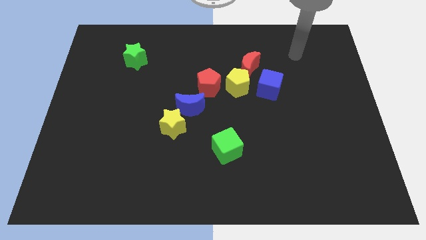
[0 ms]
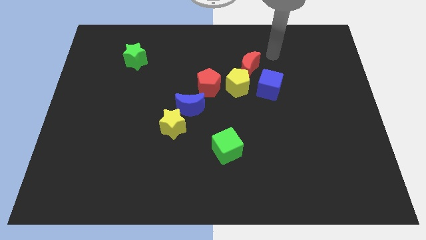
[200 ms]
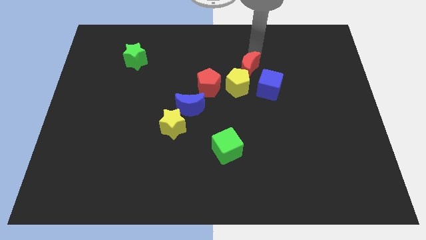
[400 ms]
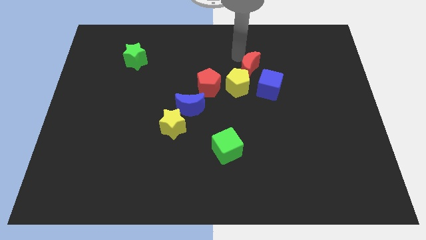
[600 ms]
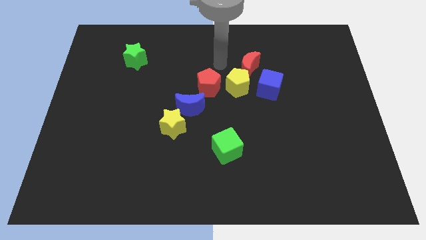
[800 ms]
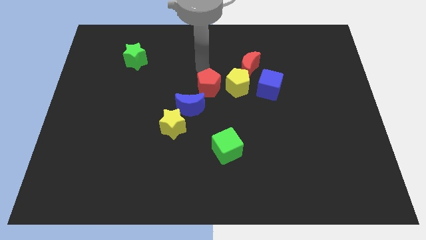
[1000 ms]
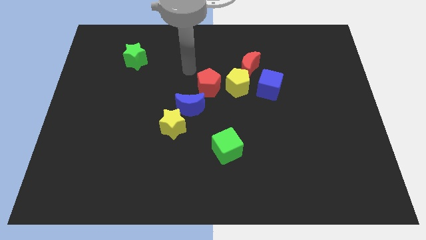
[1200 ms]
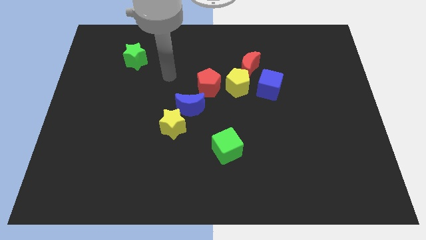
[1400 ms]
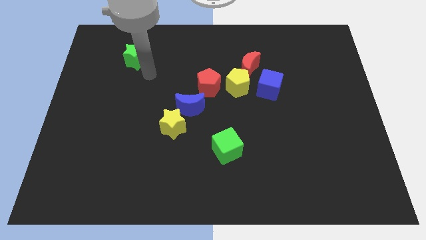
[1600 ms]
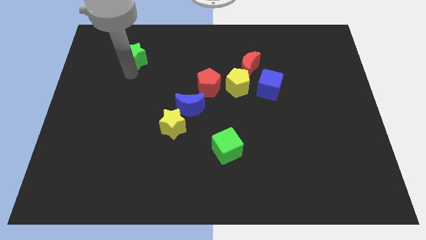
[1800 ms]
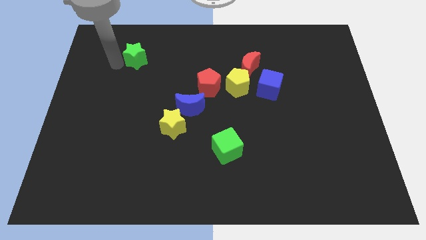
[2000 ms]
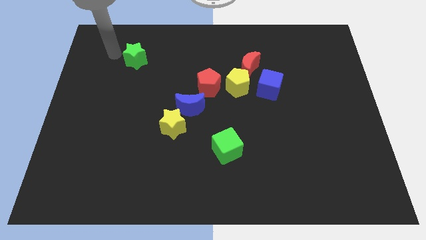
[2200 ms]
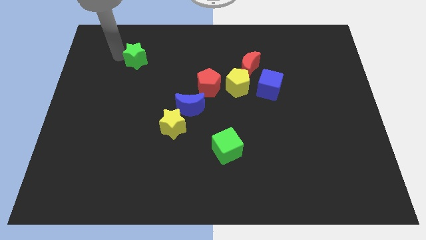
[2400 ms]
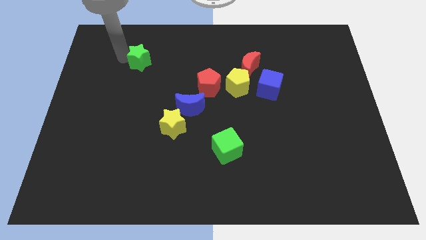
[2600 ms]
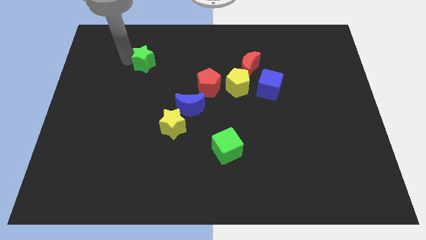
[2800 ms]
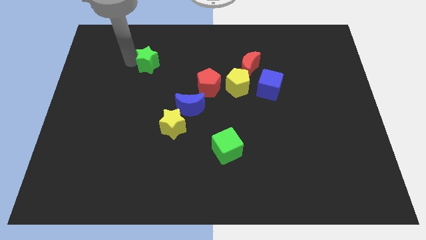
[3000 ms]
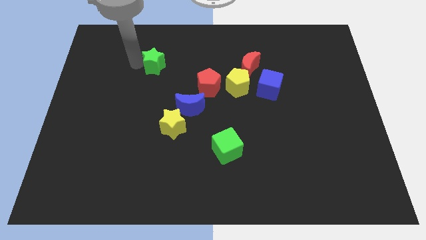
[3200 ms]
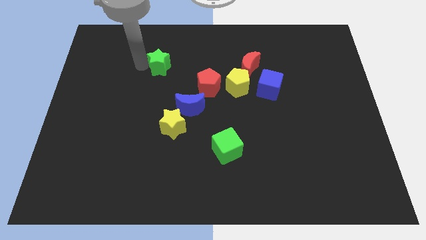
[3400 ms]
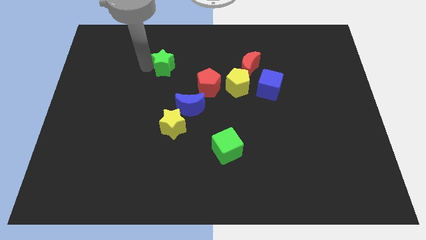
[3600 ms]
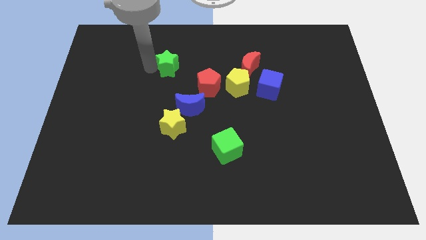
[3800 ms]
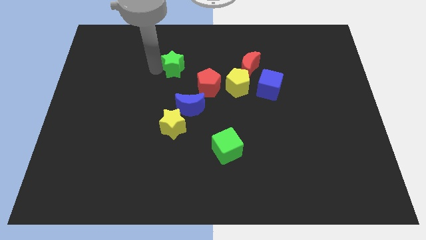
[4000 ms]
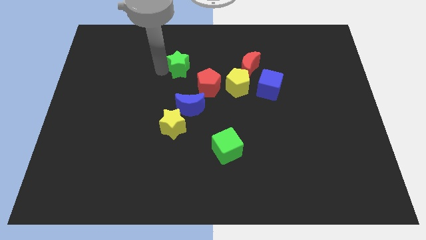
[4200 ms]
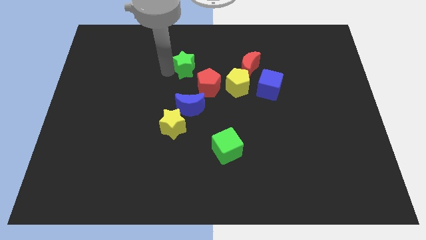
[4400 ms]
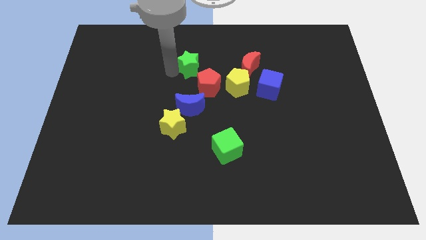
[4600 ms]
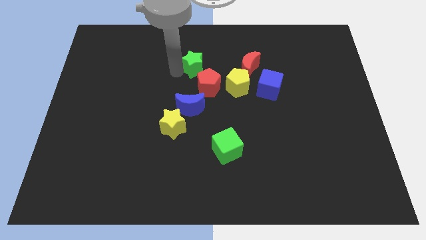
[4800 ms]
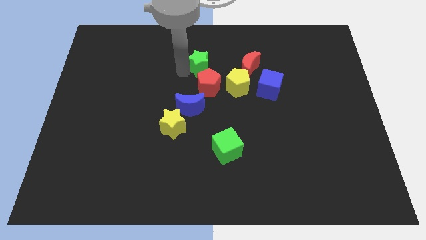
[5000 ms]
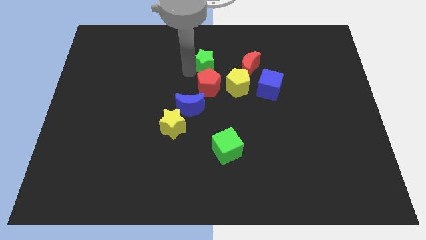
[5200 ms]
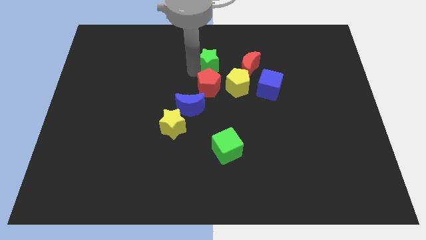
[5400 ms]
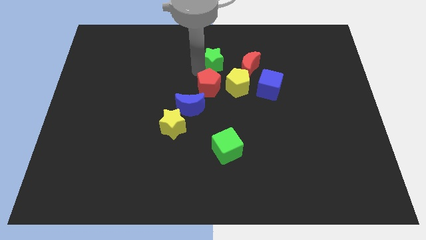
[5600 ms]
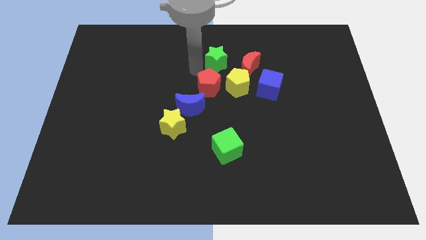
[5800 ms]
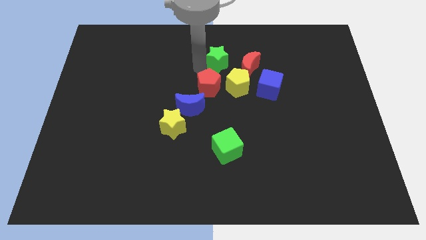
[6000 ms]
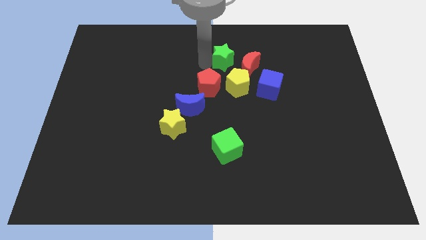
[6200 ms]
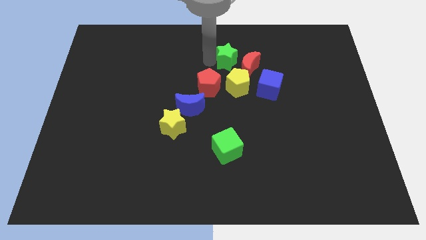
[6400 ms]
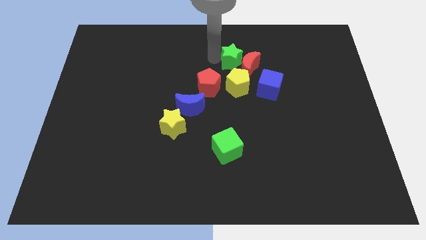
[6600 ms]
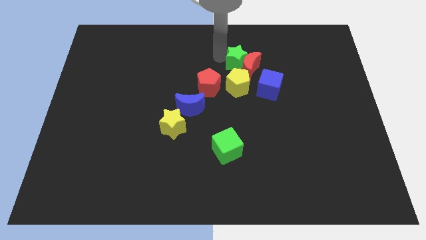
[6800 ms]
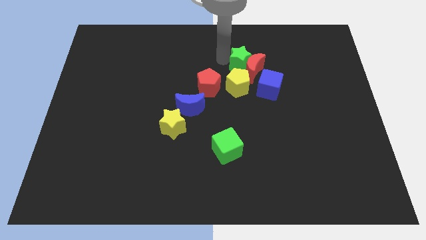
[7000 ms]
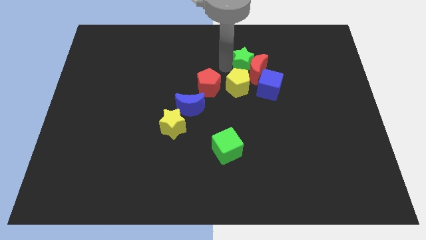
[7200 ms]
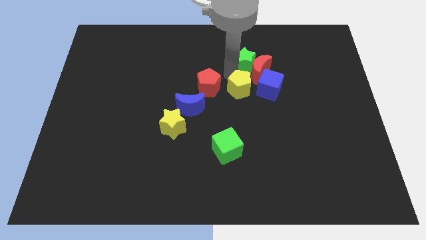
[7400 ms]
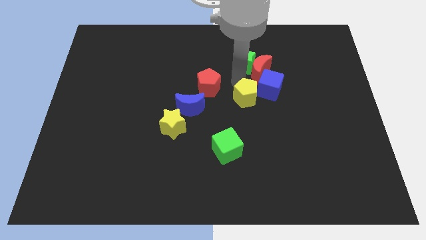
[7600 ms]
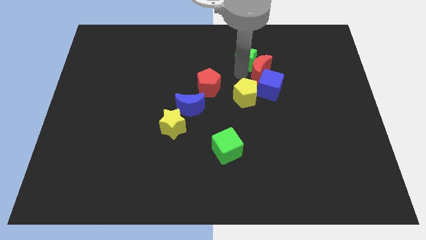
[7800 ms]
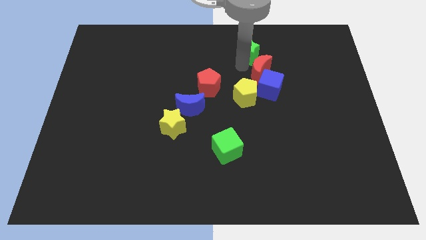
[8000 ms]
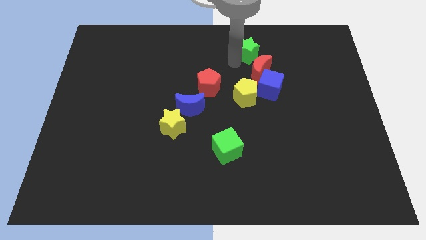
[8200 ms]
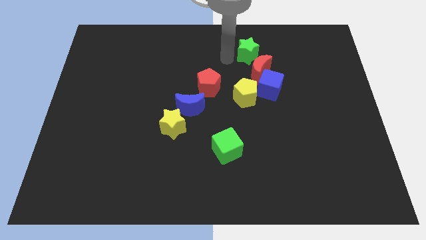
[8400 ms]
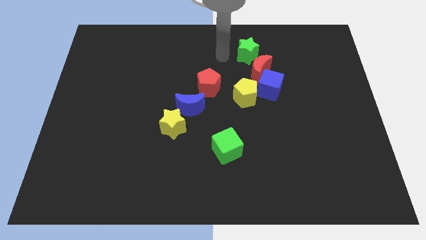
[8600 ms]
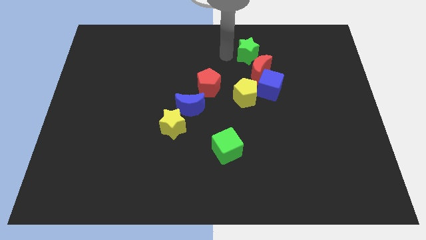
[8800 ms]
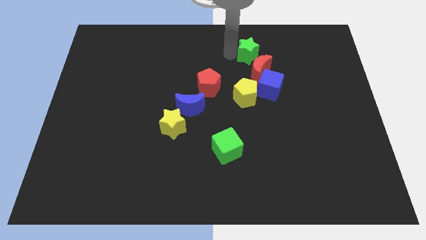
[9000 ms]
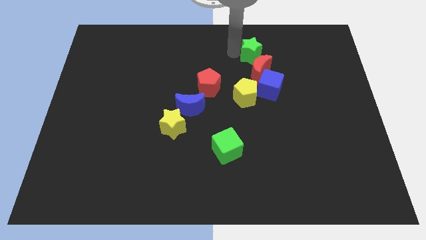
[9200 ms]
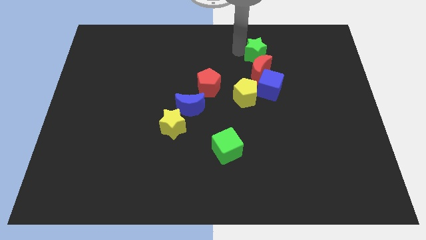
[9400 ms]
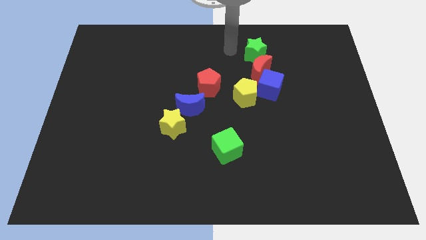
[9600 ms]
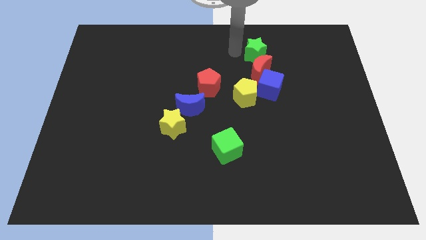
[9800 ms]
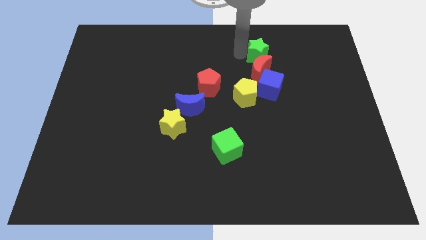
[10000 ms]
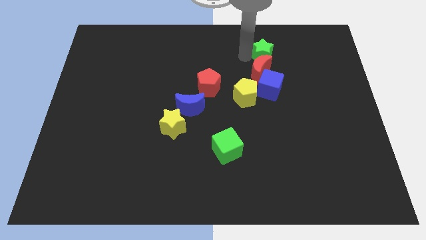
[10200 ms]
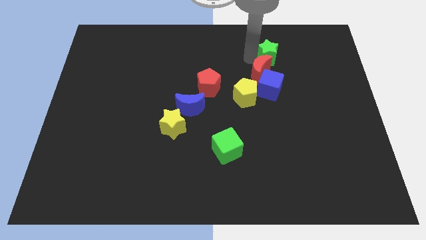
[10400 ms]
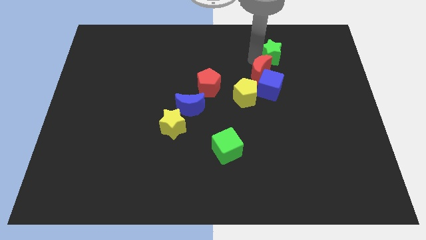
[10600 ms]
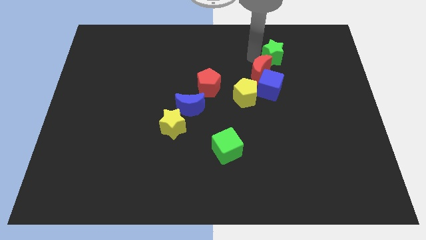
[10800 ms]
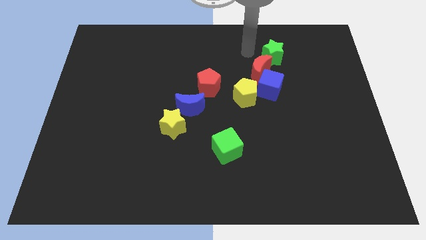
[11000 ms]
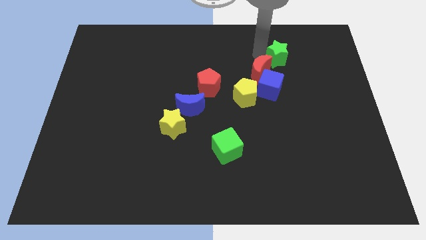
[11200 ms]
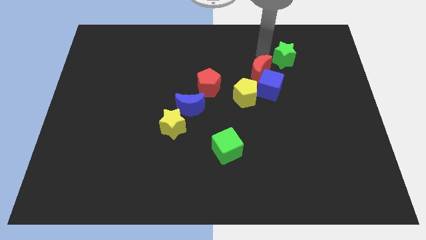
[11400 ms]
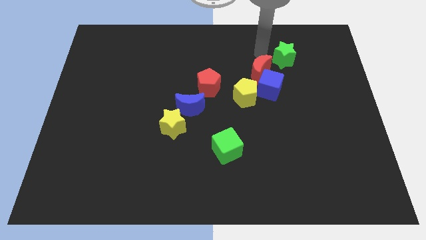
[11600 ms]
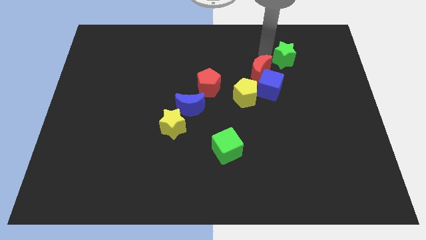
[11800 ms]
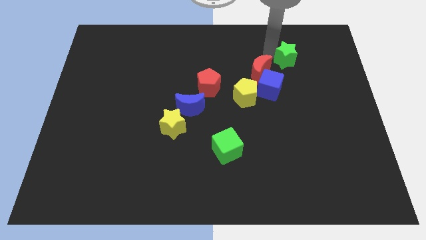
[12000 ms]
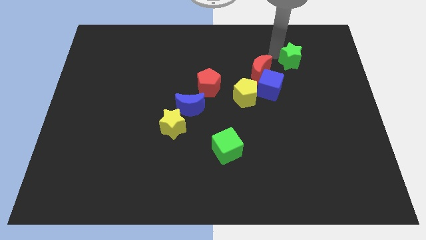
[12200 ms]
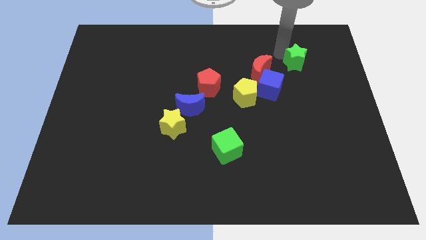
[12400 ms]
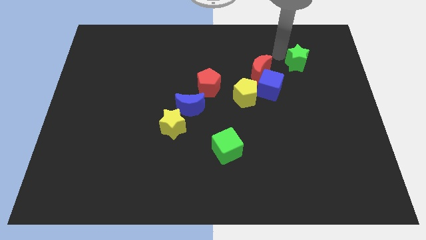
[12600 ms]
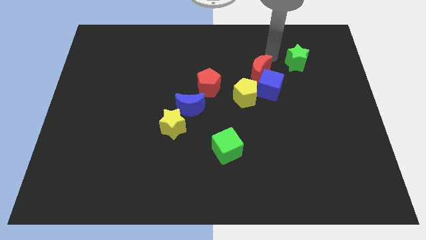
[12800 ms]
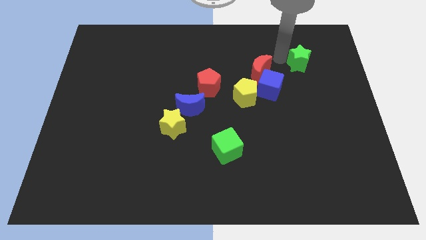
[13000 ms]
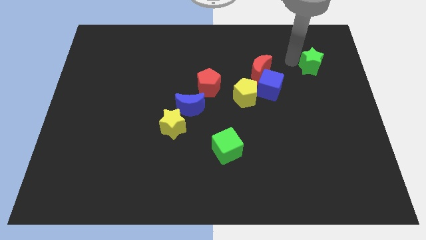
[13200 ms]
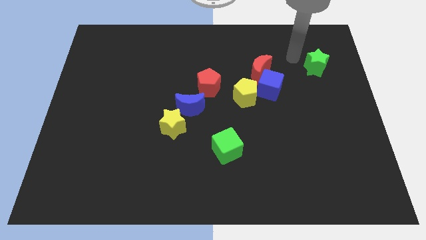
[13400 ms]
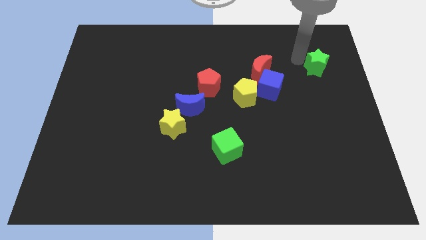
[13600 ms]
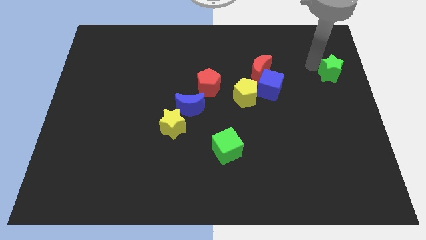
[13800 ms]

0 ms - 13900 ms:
move the green star to the center right

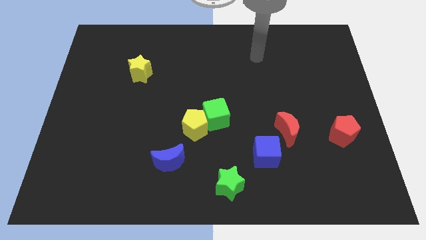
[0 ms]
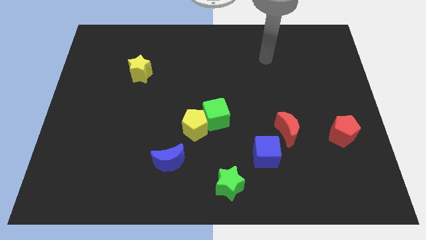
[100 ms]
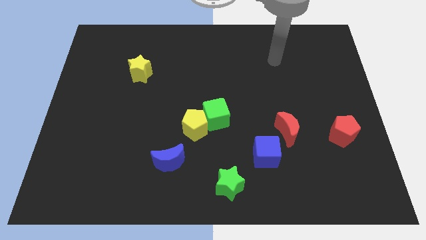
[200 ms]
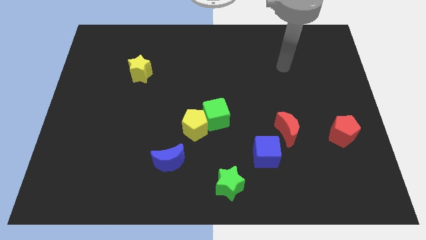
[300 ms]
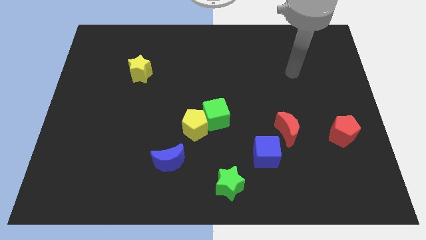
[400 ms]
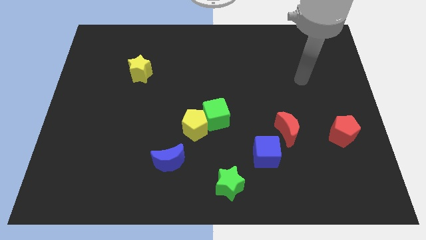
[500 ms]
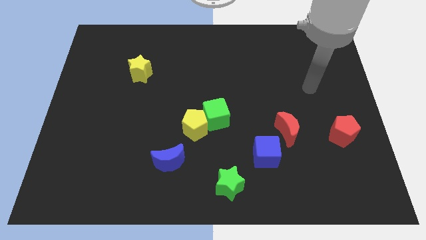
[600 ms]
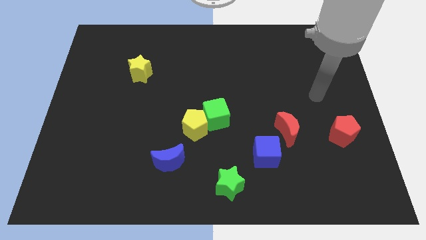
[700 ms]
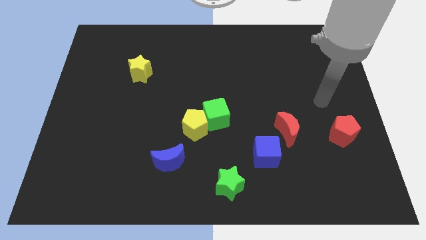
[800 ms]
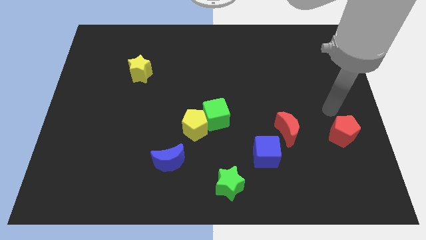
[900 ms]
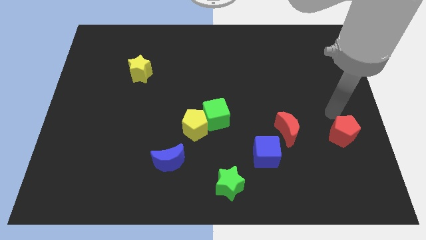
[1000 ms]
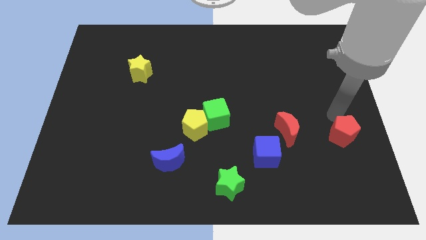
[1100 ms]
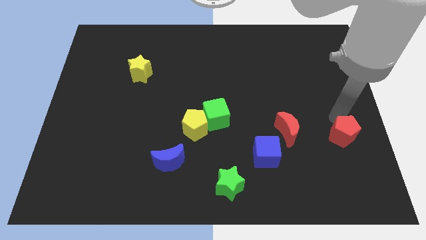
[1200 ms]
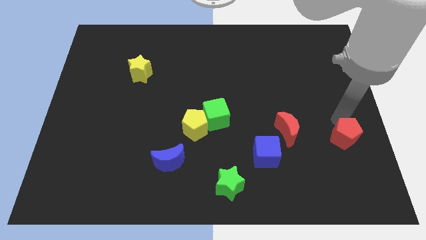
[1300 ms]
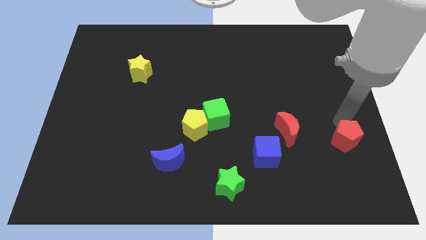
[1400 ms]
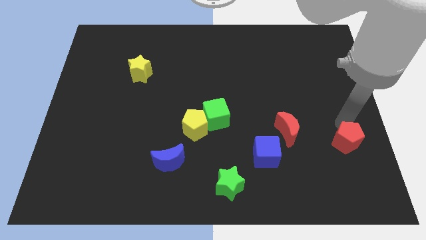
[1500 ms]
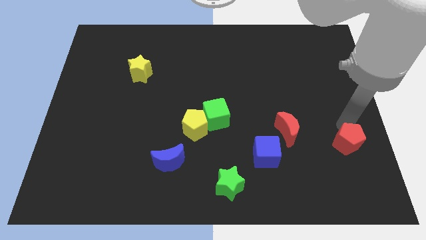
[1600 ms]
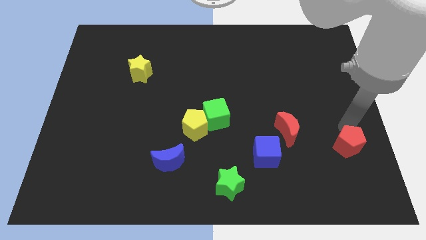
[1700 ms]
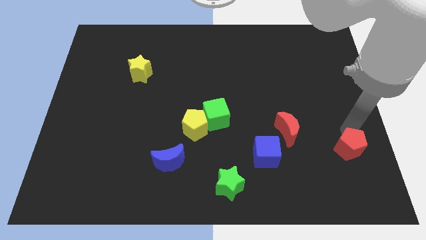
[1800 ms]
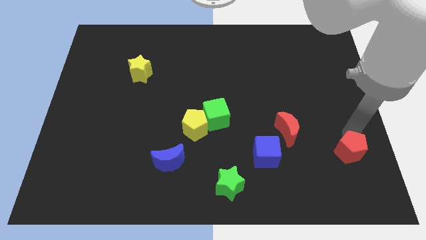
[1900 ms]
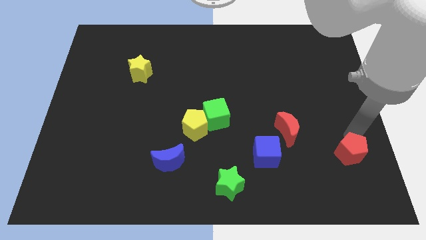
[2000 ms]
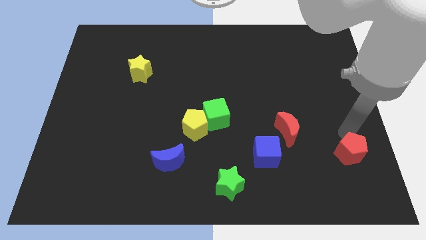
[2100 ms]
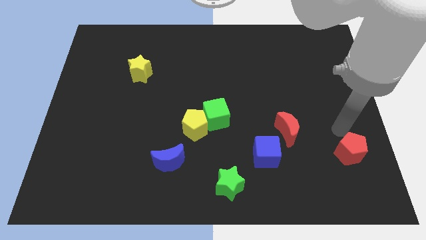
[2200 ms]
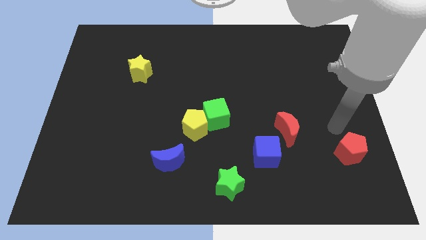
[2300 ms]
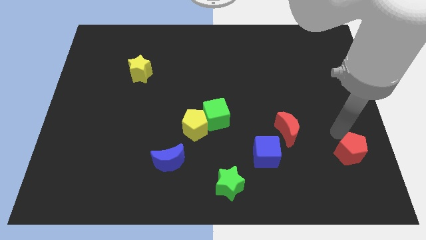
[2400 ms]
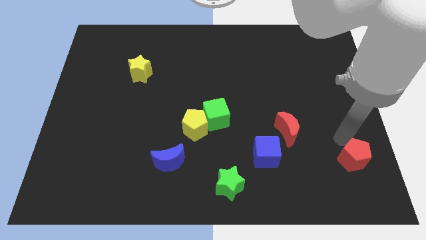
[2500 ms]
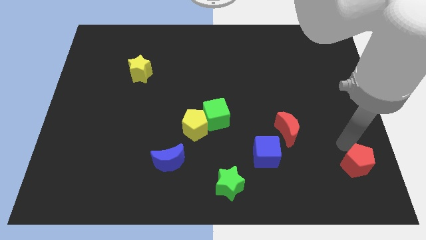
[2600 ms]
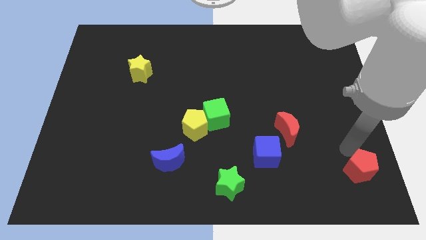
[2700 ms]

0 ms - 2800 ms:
push the red pentagon to the bottom right
